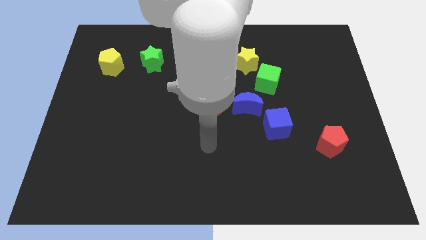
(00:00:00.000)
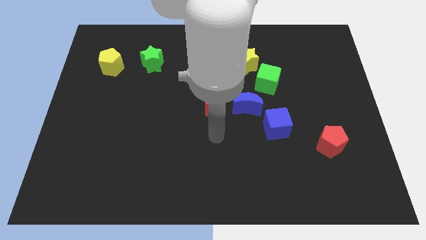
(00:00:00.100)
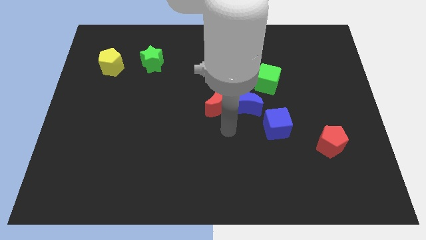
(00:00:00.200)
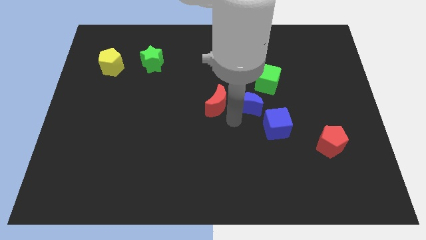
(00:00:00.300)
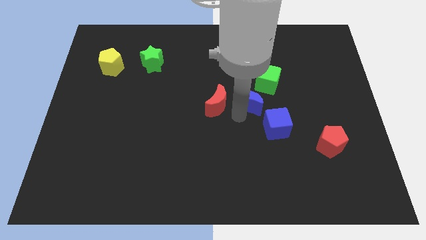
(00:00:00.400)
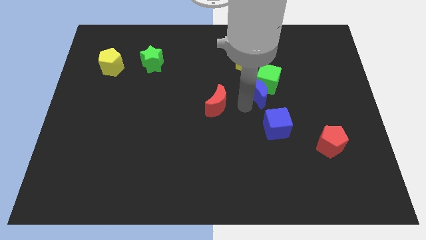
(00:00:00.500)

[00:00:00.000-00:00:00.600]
move the red moon away from the blue moon

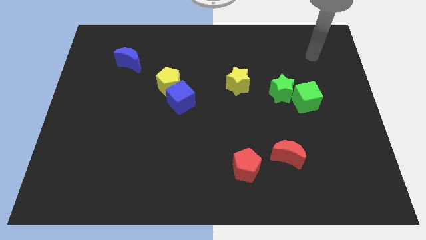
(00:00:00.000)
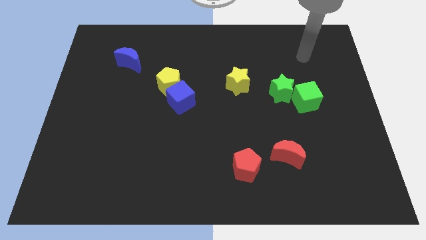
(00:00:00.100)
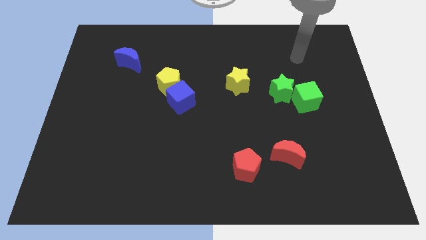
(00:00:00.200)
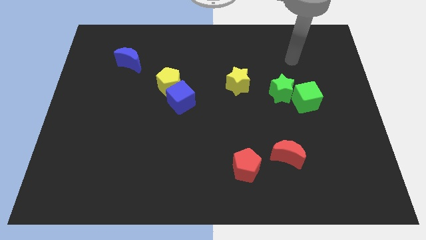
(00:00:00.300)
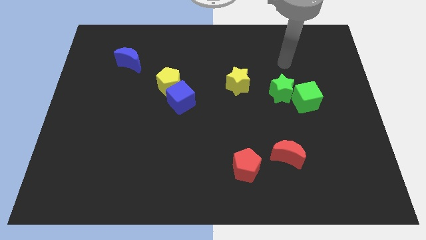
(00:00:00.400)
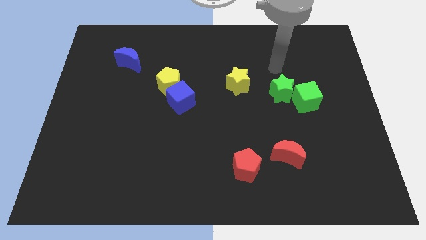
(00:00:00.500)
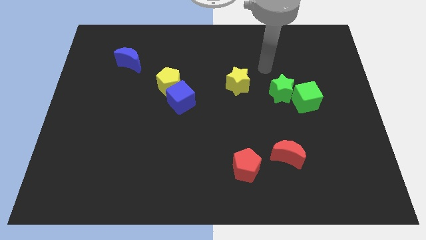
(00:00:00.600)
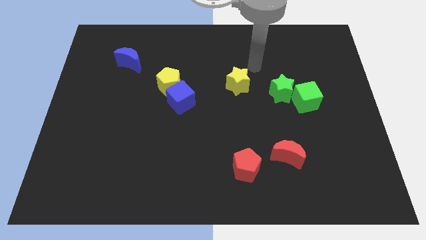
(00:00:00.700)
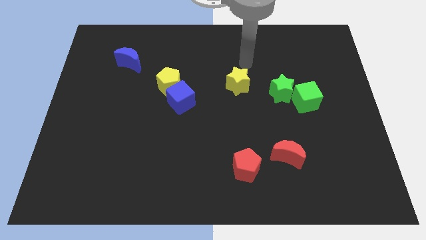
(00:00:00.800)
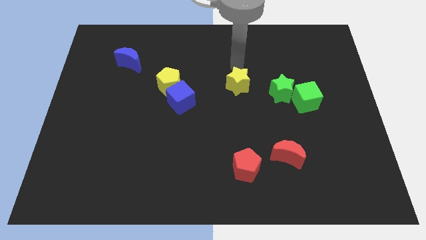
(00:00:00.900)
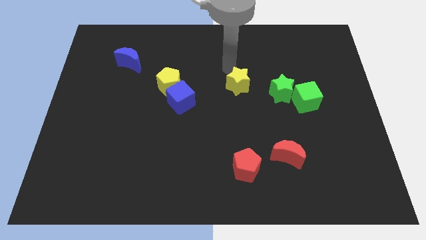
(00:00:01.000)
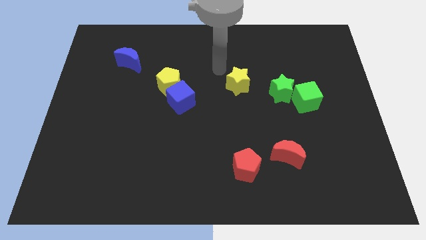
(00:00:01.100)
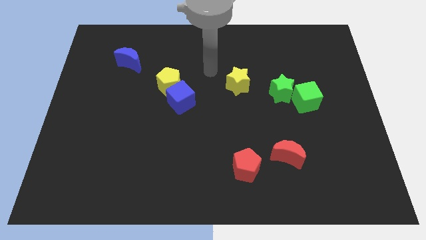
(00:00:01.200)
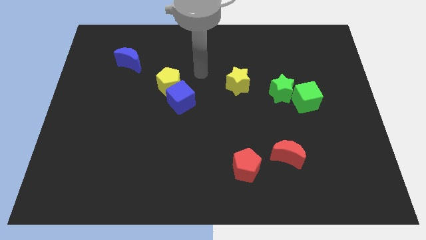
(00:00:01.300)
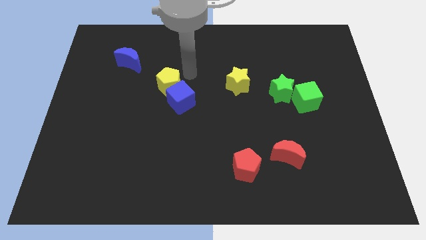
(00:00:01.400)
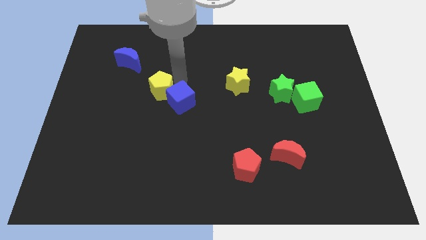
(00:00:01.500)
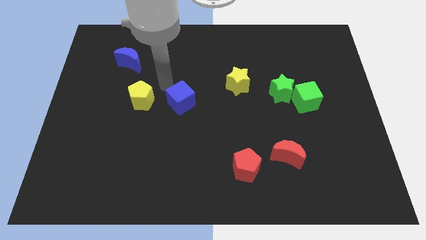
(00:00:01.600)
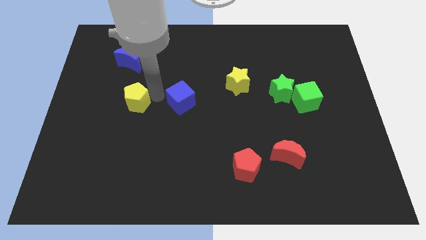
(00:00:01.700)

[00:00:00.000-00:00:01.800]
move the blue cube away from the yellow pentagon

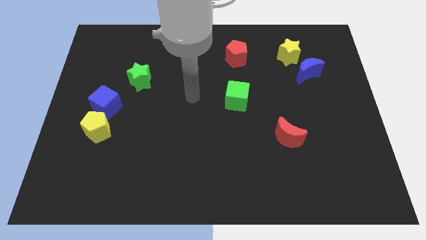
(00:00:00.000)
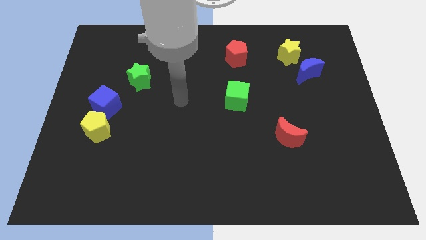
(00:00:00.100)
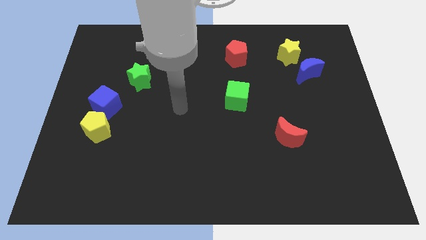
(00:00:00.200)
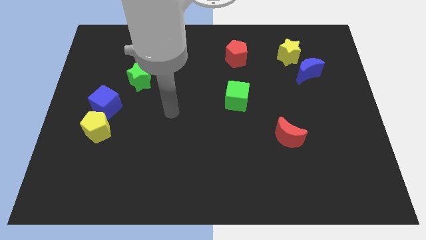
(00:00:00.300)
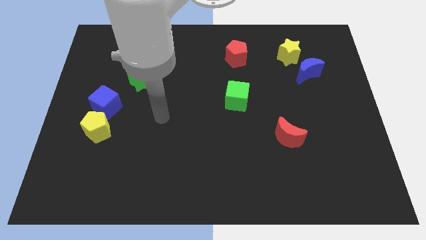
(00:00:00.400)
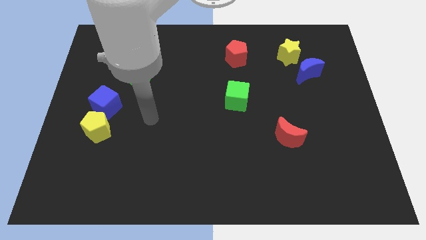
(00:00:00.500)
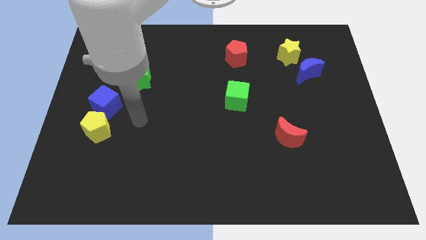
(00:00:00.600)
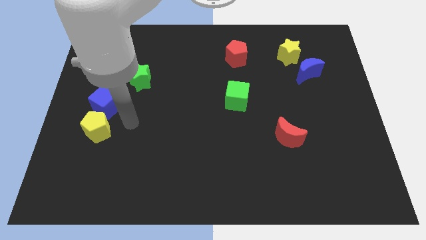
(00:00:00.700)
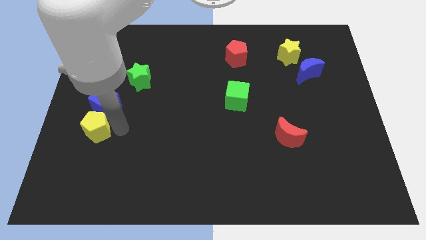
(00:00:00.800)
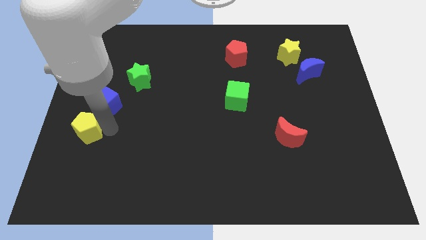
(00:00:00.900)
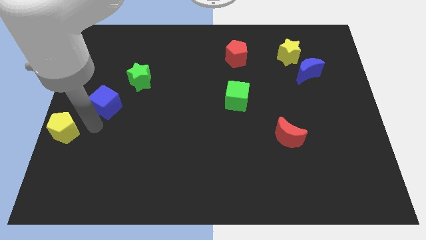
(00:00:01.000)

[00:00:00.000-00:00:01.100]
pull the blue cube apart from the yellow pentagon

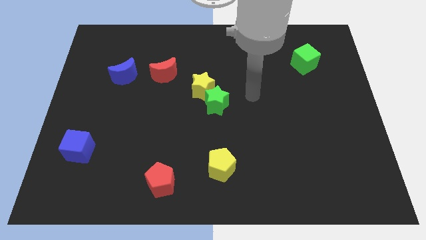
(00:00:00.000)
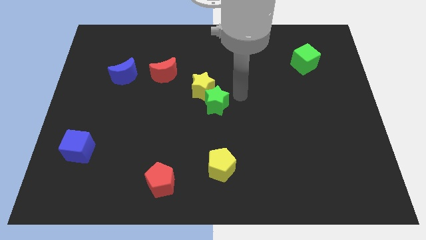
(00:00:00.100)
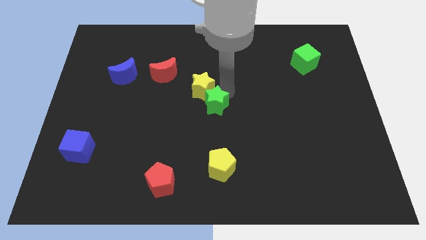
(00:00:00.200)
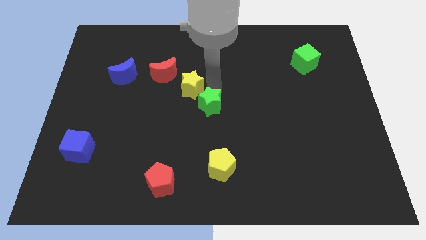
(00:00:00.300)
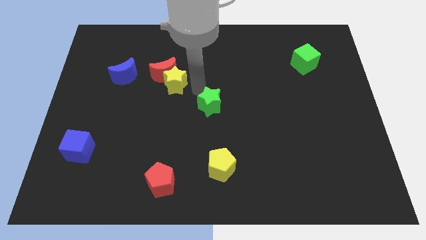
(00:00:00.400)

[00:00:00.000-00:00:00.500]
separate the green star from the yellow star

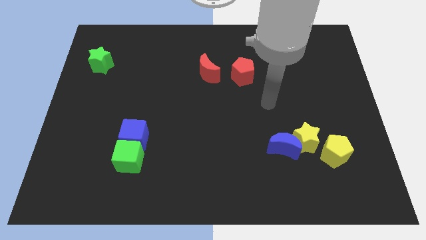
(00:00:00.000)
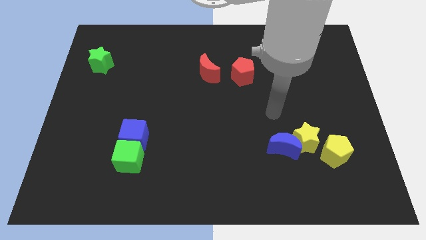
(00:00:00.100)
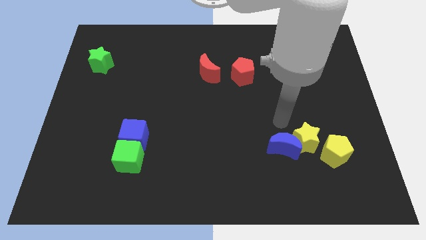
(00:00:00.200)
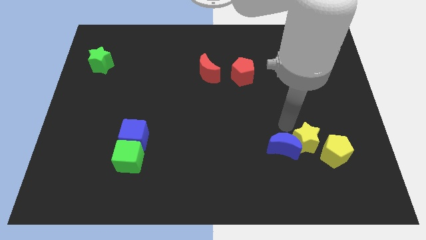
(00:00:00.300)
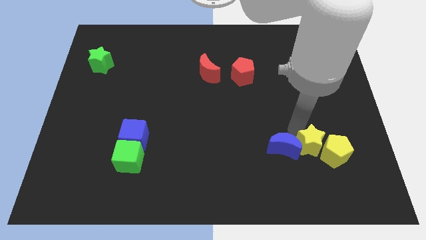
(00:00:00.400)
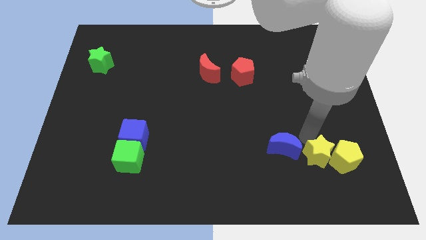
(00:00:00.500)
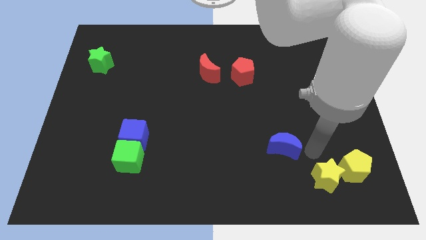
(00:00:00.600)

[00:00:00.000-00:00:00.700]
move the blue moon away from the yellow star

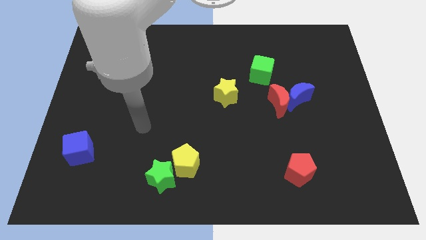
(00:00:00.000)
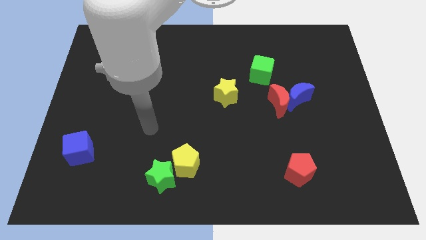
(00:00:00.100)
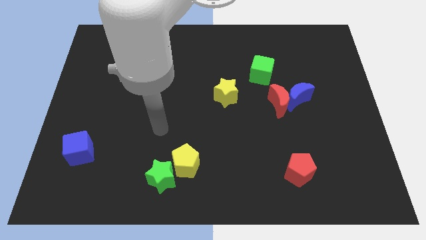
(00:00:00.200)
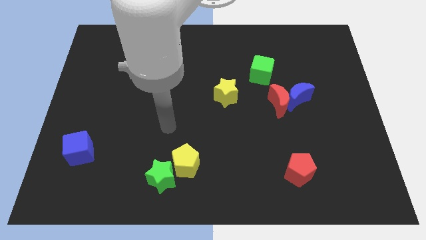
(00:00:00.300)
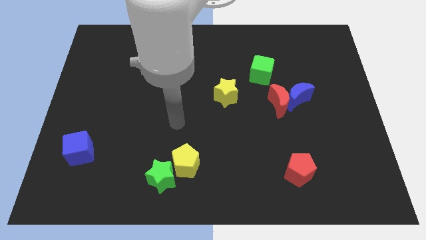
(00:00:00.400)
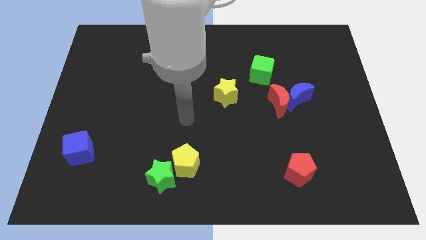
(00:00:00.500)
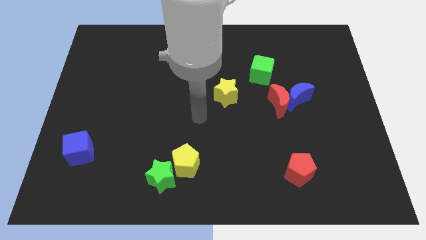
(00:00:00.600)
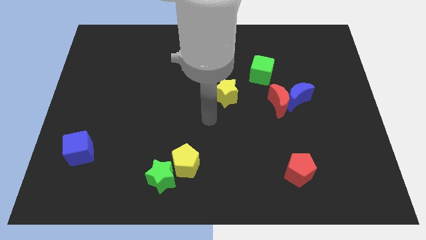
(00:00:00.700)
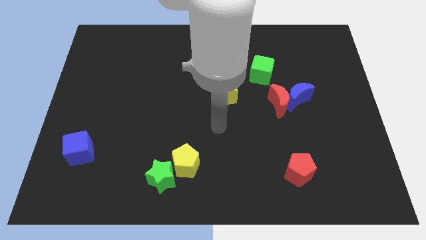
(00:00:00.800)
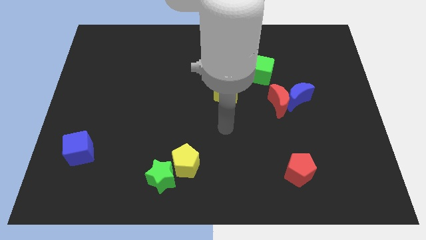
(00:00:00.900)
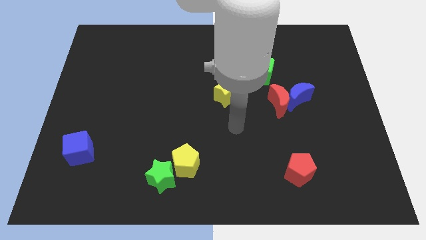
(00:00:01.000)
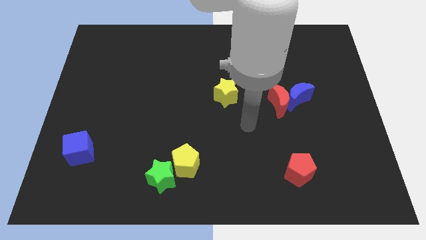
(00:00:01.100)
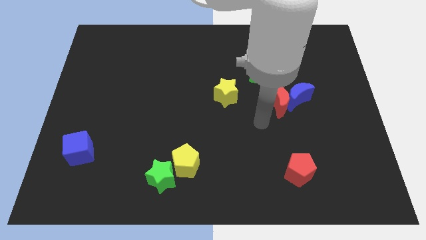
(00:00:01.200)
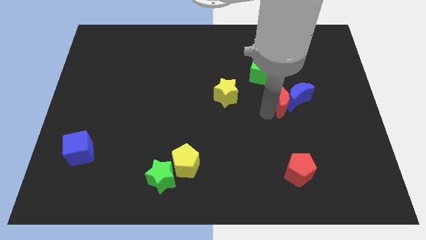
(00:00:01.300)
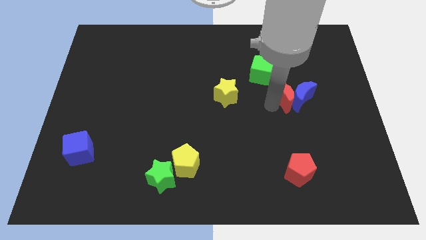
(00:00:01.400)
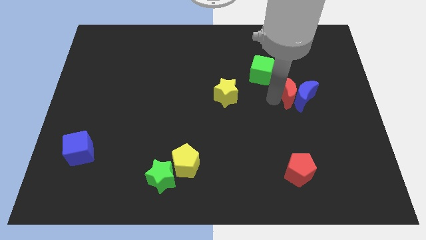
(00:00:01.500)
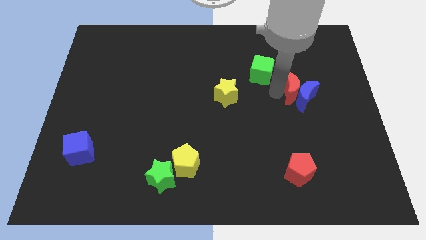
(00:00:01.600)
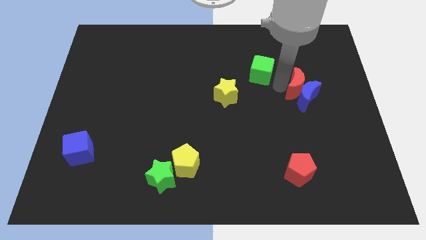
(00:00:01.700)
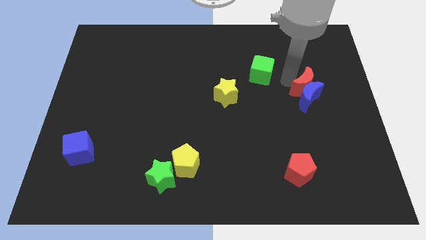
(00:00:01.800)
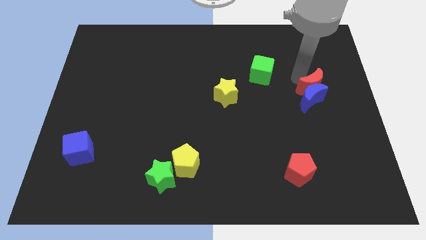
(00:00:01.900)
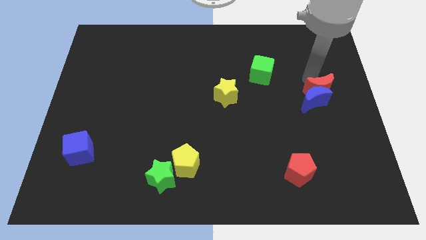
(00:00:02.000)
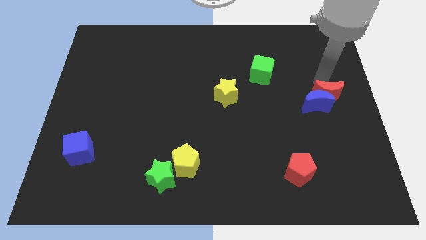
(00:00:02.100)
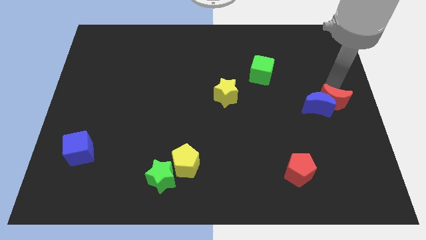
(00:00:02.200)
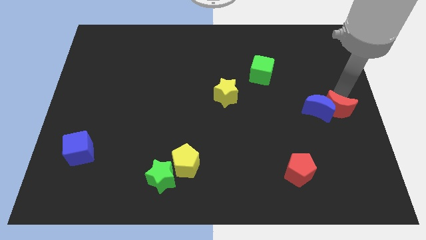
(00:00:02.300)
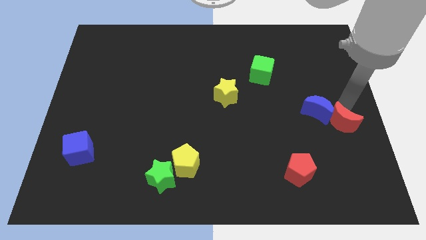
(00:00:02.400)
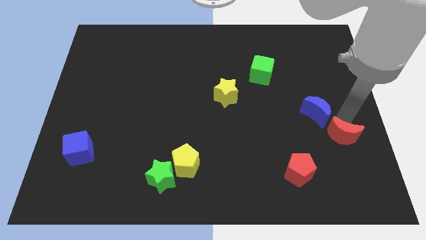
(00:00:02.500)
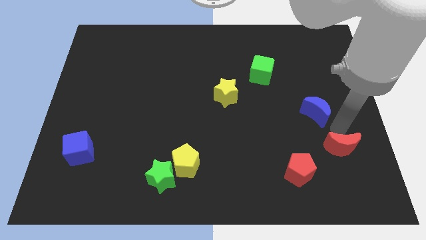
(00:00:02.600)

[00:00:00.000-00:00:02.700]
move the blue moon away from the red moon

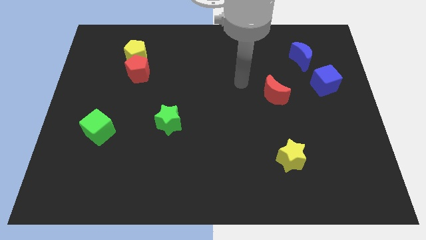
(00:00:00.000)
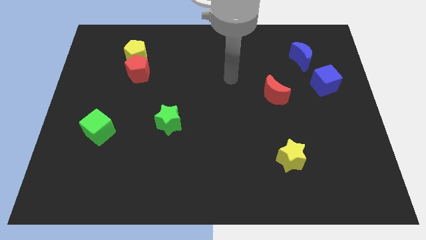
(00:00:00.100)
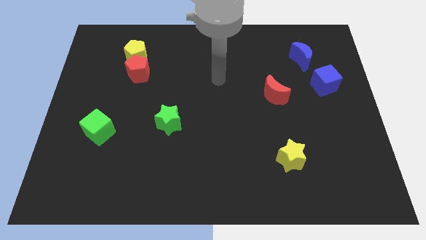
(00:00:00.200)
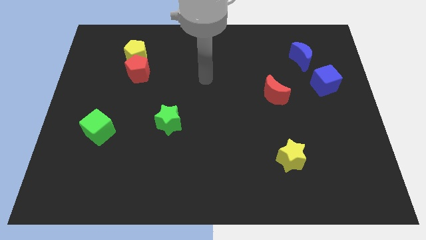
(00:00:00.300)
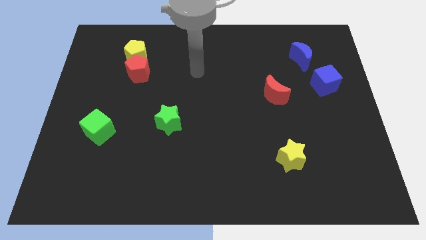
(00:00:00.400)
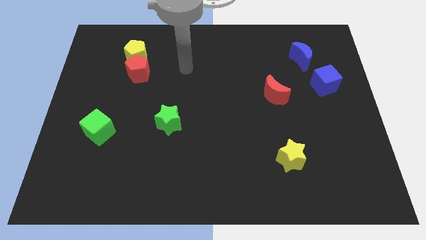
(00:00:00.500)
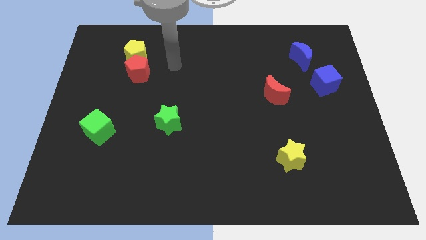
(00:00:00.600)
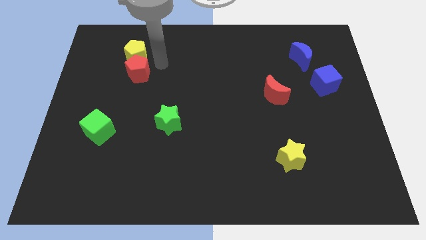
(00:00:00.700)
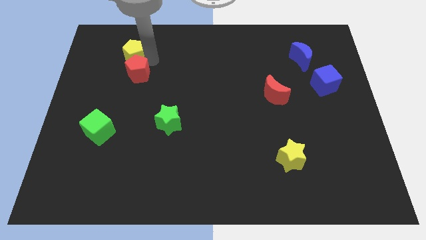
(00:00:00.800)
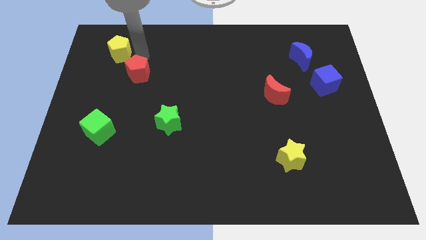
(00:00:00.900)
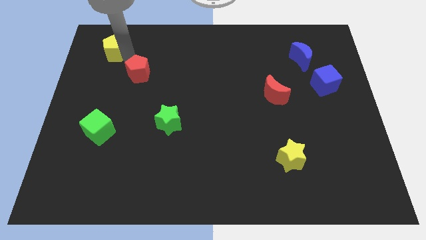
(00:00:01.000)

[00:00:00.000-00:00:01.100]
separate the red pentagon from the yellow pentagon

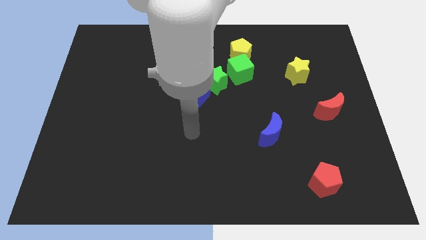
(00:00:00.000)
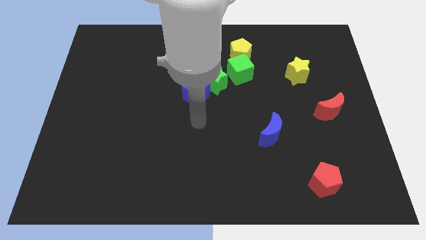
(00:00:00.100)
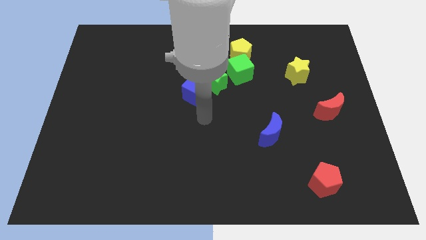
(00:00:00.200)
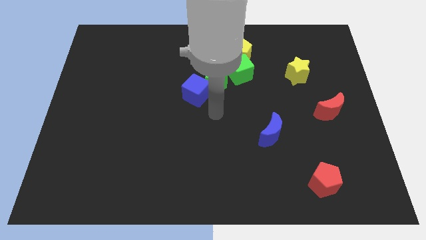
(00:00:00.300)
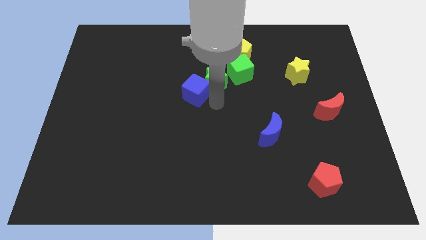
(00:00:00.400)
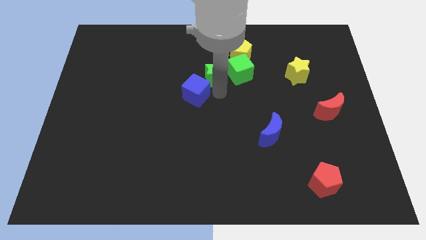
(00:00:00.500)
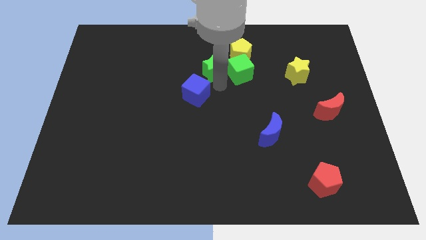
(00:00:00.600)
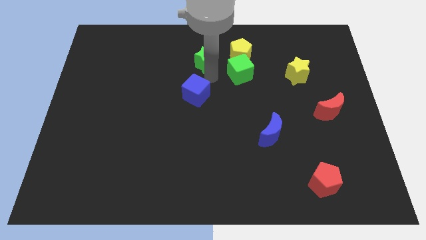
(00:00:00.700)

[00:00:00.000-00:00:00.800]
move the blue cube away from the green star
